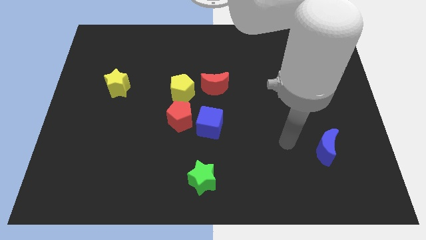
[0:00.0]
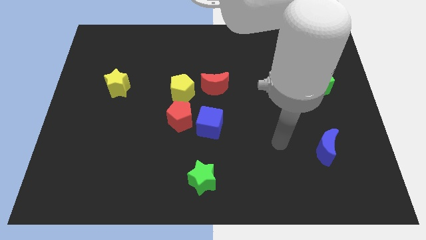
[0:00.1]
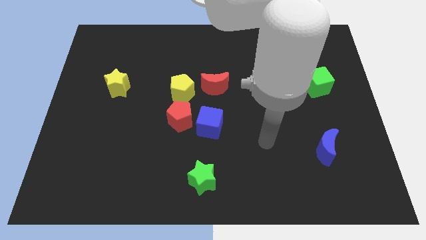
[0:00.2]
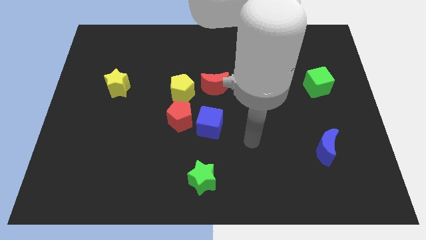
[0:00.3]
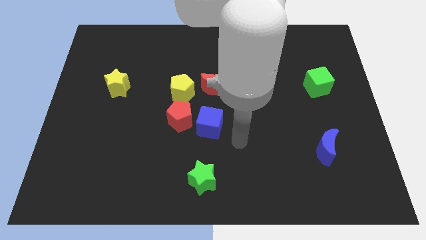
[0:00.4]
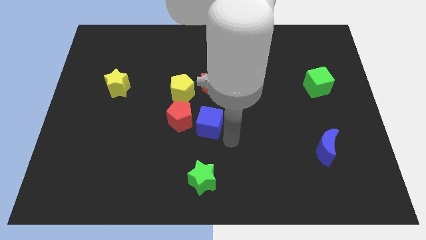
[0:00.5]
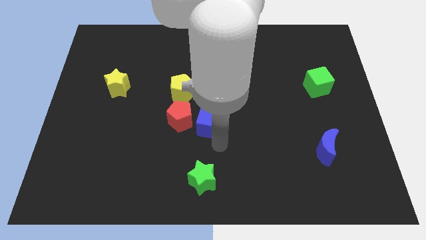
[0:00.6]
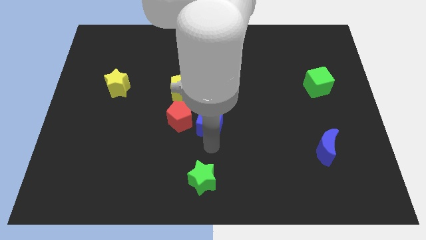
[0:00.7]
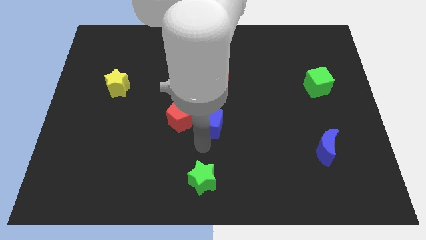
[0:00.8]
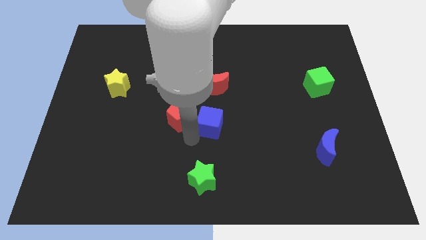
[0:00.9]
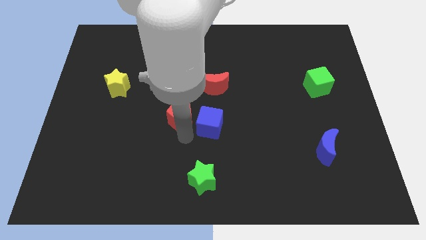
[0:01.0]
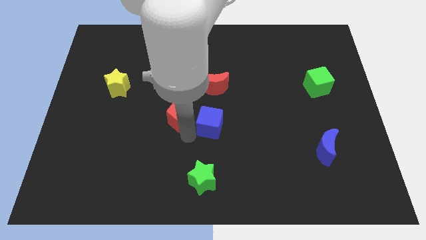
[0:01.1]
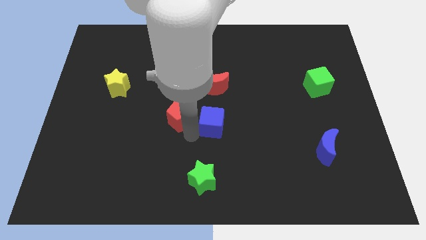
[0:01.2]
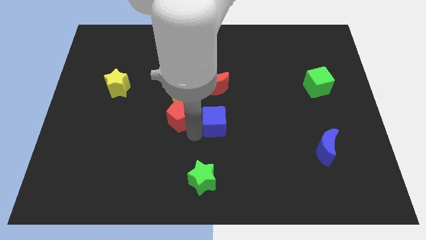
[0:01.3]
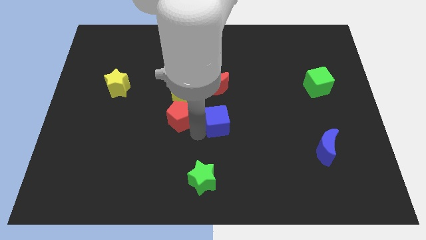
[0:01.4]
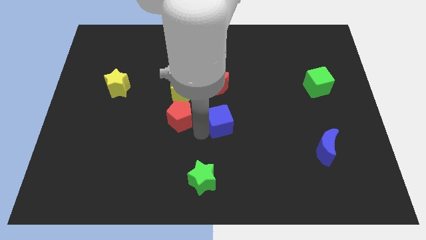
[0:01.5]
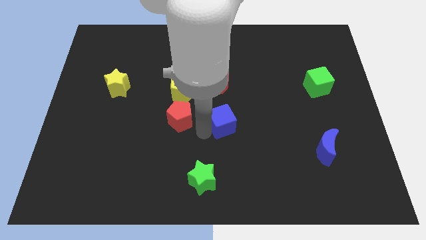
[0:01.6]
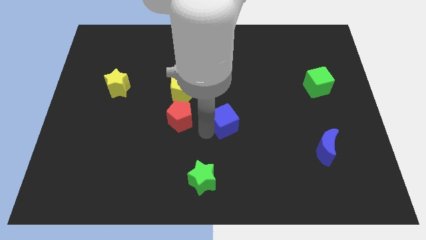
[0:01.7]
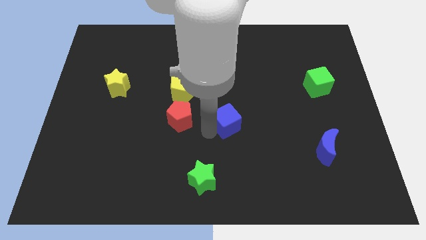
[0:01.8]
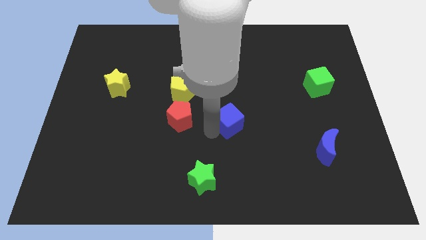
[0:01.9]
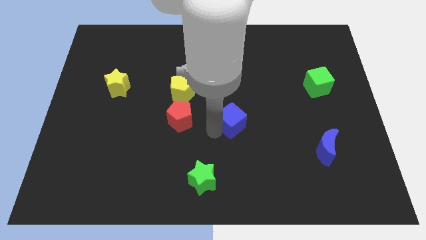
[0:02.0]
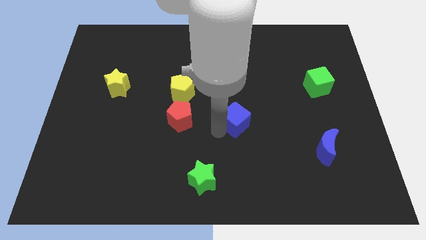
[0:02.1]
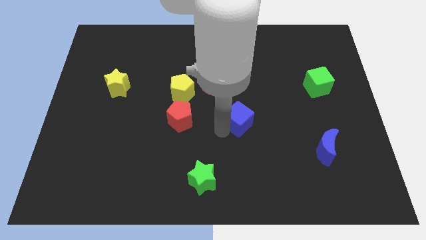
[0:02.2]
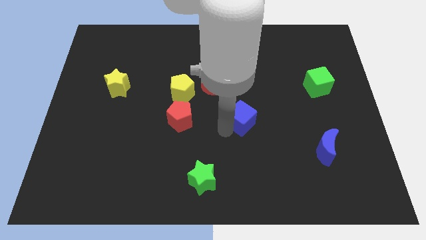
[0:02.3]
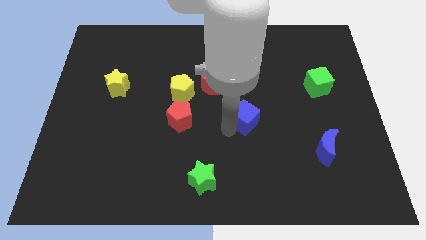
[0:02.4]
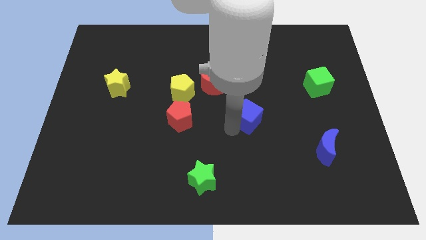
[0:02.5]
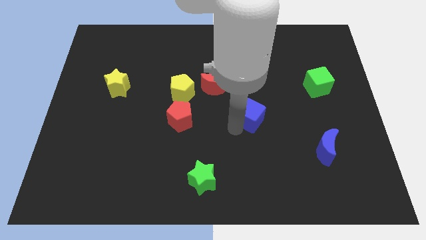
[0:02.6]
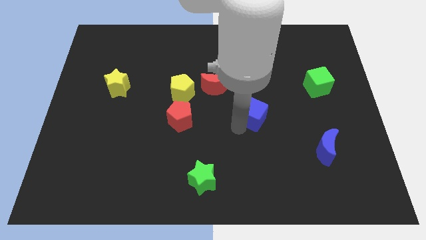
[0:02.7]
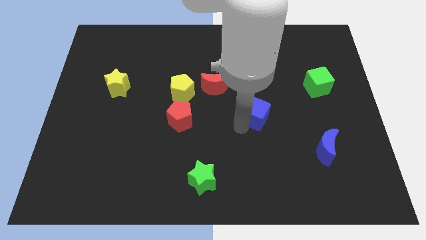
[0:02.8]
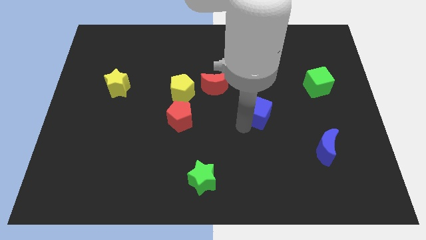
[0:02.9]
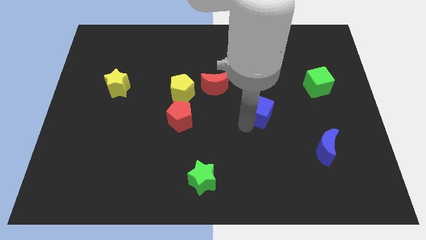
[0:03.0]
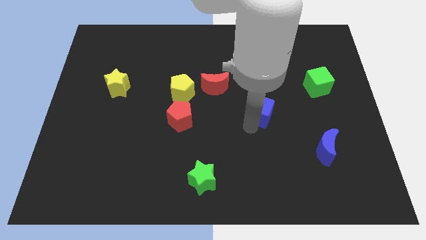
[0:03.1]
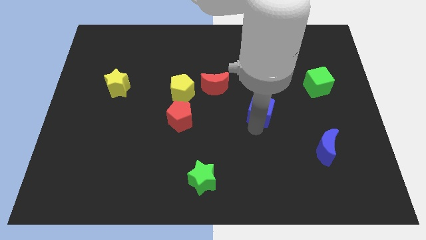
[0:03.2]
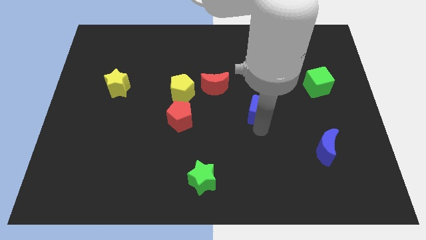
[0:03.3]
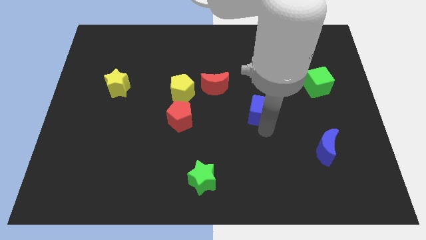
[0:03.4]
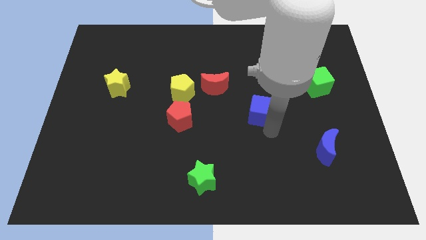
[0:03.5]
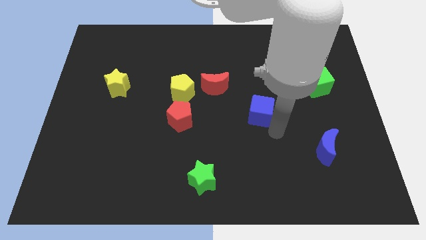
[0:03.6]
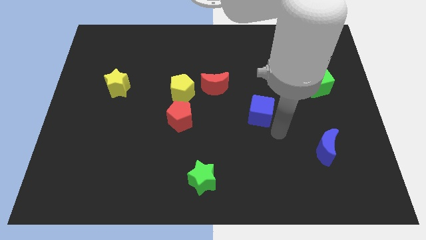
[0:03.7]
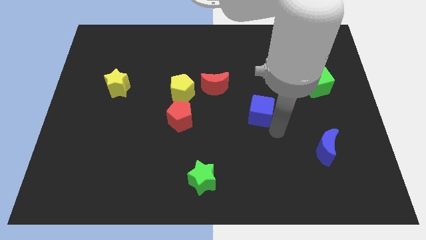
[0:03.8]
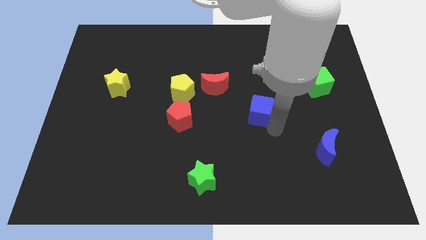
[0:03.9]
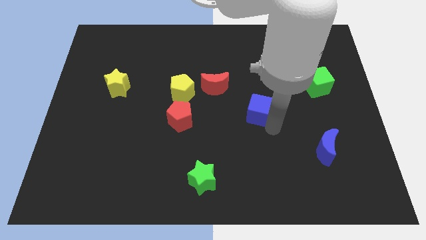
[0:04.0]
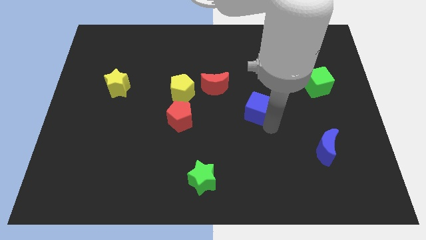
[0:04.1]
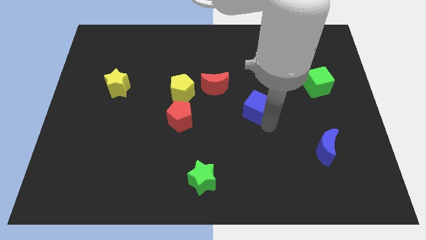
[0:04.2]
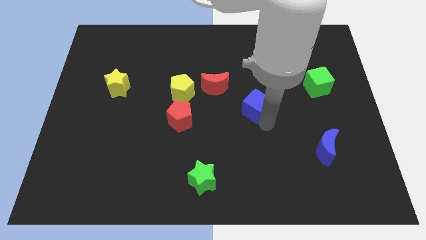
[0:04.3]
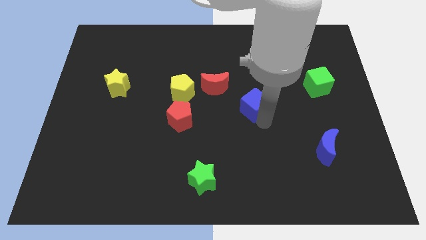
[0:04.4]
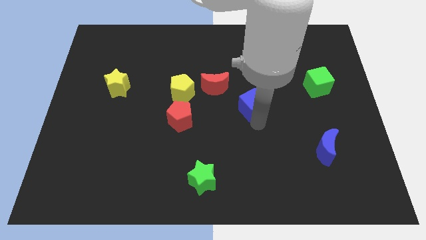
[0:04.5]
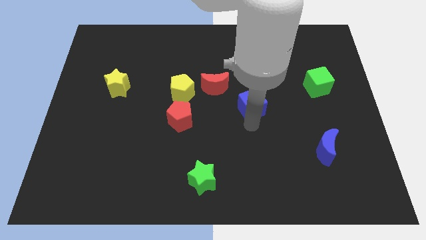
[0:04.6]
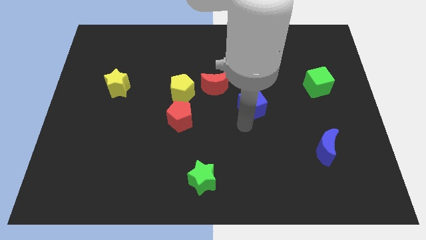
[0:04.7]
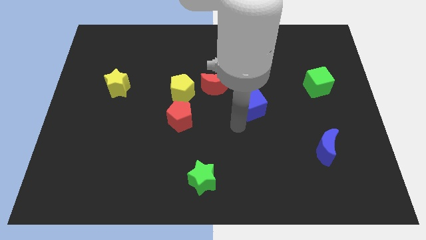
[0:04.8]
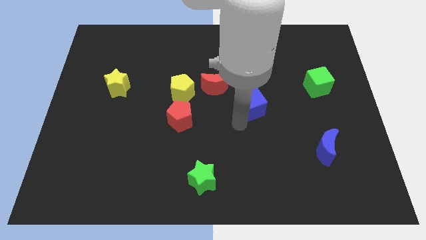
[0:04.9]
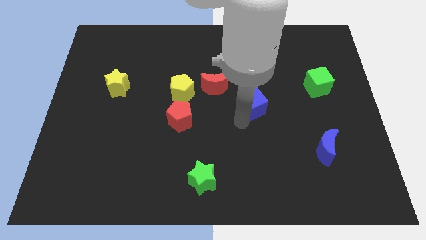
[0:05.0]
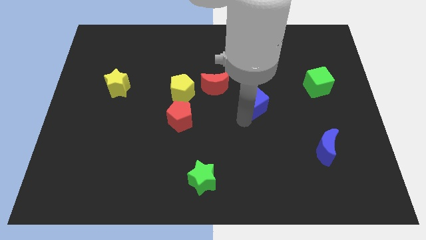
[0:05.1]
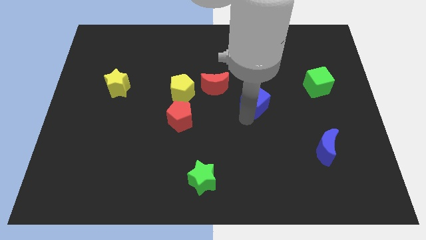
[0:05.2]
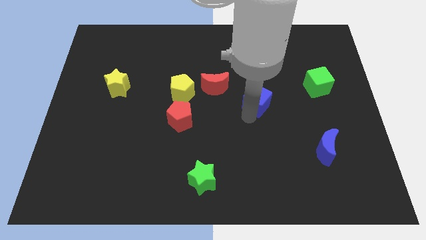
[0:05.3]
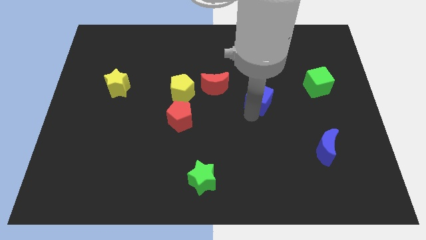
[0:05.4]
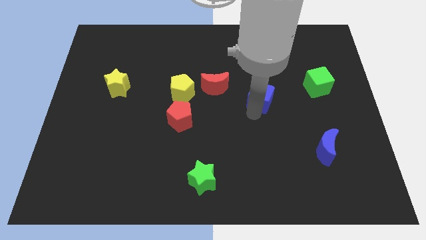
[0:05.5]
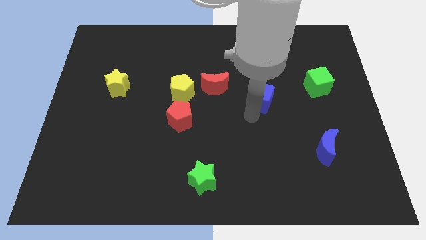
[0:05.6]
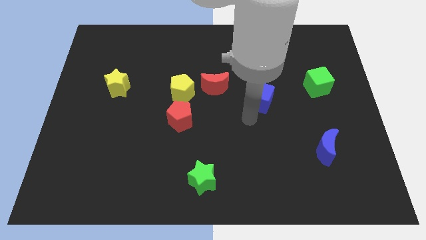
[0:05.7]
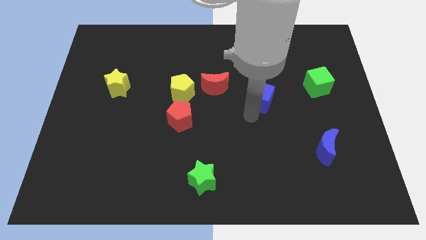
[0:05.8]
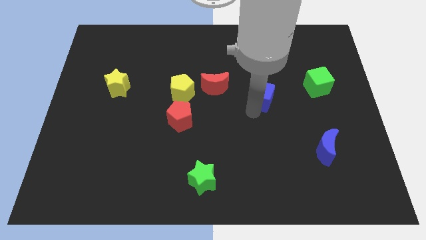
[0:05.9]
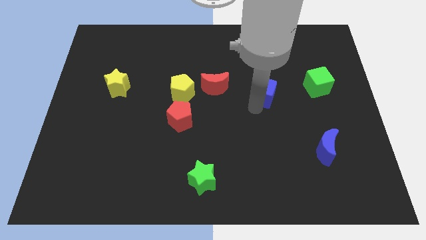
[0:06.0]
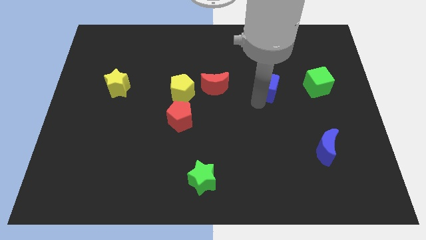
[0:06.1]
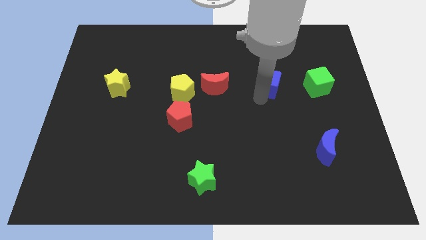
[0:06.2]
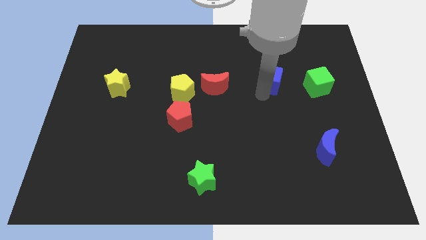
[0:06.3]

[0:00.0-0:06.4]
slide the blue cube upwards and to the right

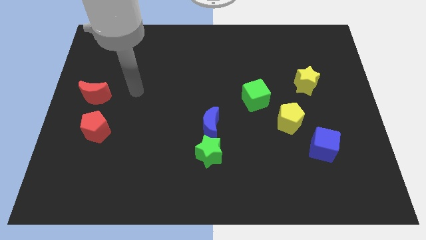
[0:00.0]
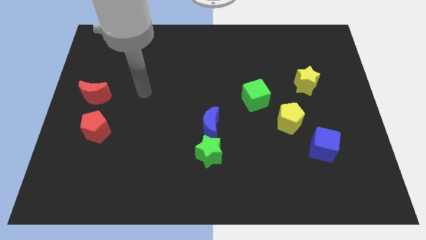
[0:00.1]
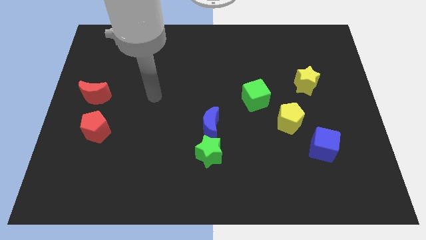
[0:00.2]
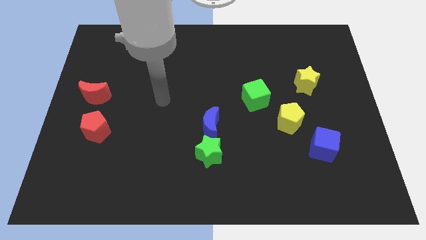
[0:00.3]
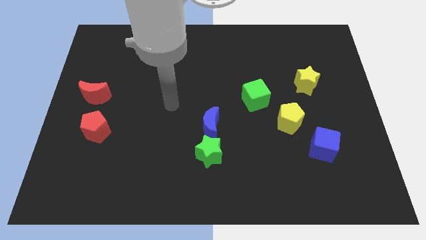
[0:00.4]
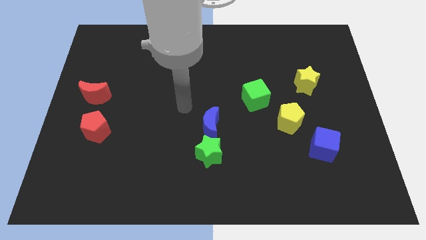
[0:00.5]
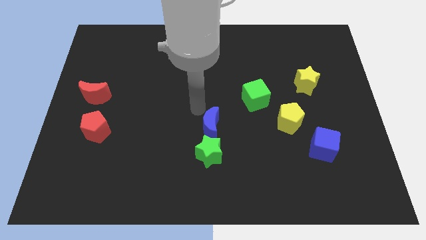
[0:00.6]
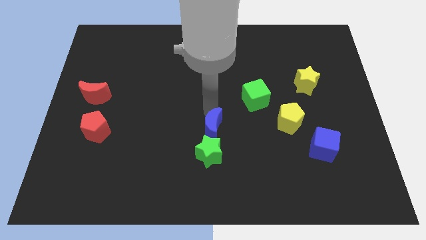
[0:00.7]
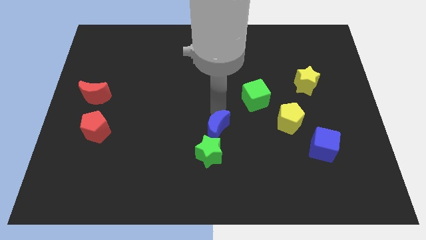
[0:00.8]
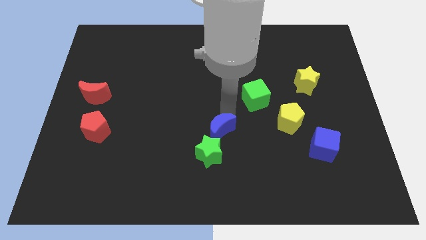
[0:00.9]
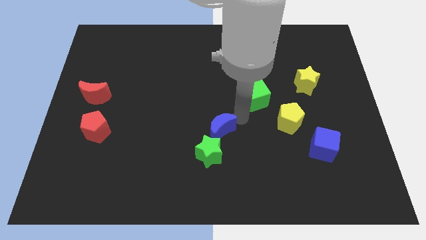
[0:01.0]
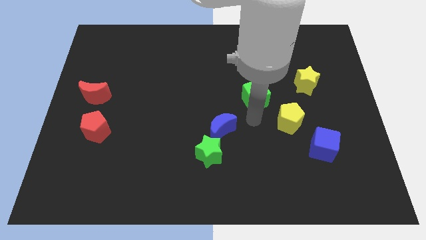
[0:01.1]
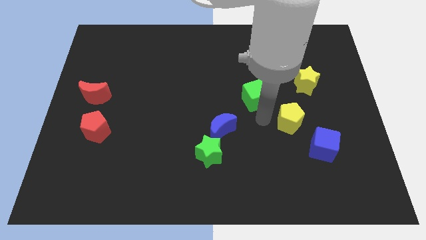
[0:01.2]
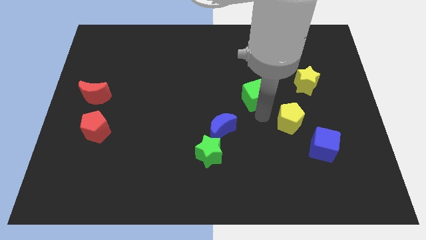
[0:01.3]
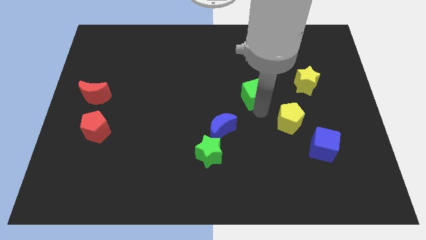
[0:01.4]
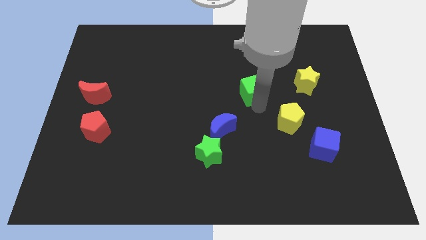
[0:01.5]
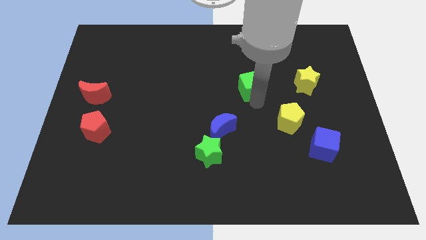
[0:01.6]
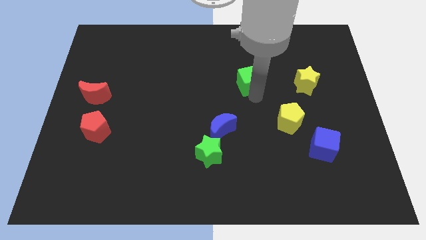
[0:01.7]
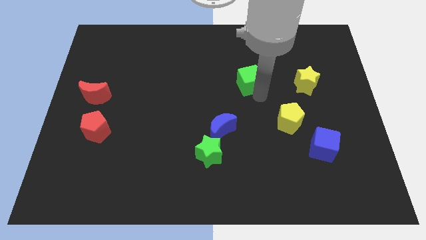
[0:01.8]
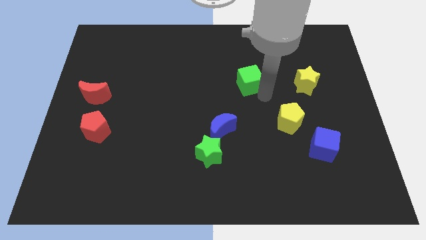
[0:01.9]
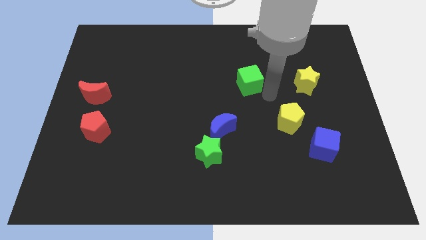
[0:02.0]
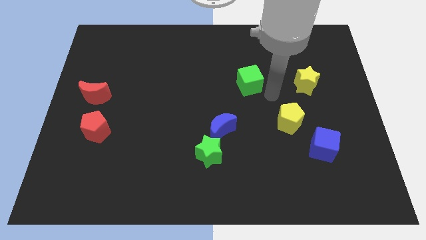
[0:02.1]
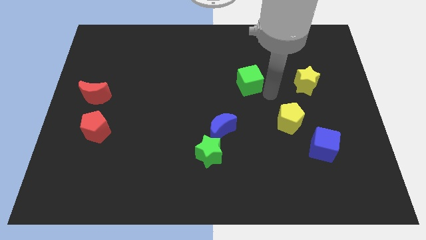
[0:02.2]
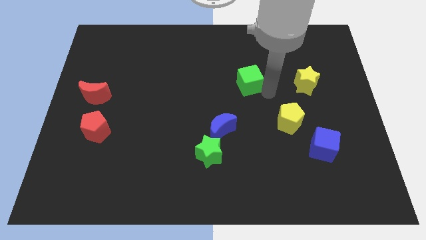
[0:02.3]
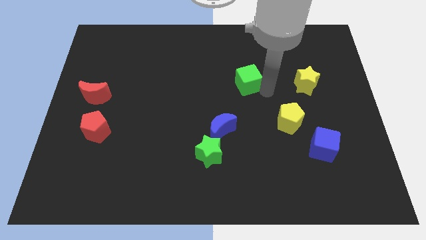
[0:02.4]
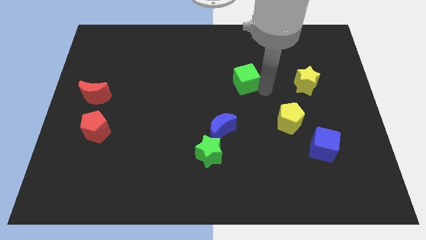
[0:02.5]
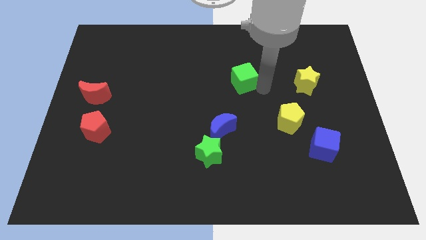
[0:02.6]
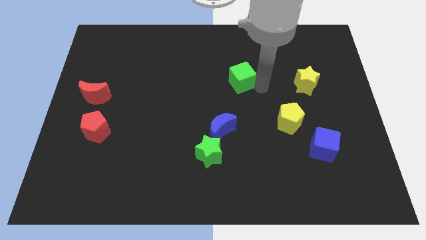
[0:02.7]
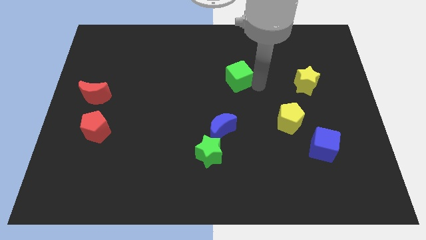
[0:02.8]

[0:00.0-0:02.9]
push the green cube upwards and left diagonally a bit
